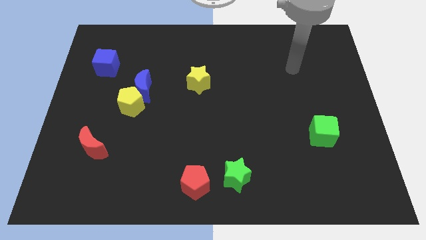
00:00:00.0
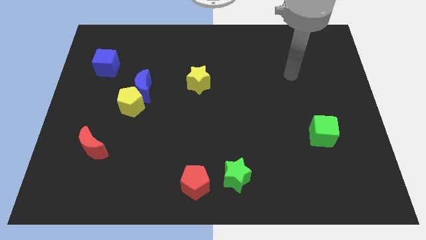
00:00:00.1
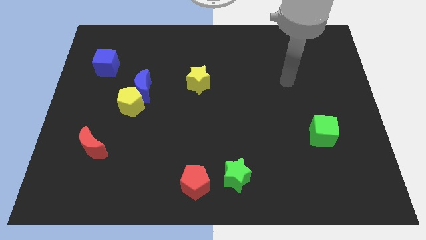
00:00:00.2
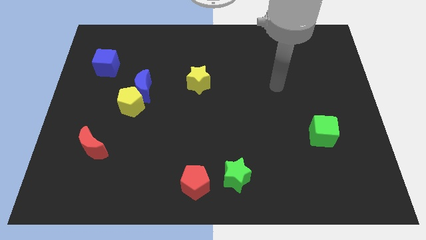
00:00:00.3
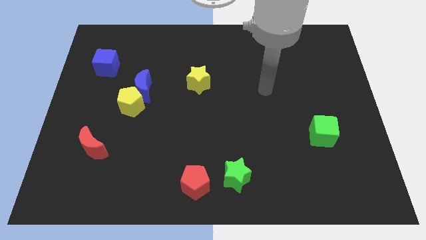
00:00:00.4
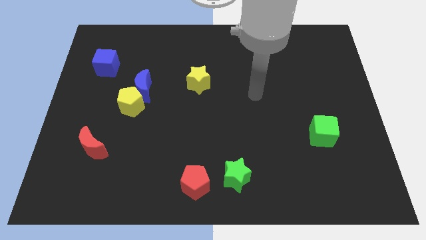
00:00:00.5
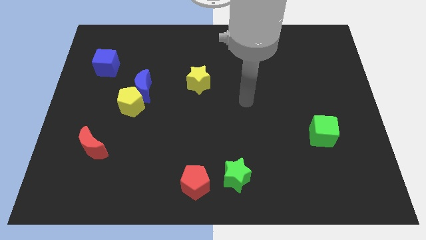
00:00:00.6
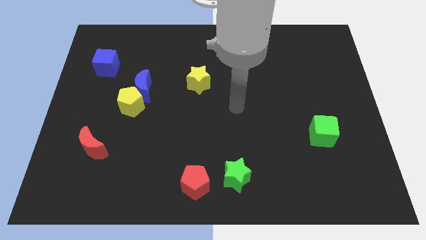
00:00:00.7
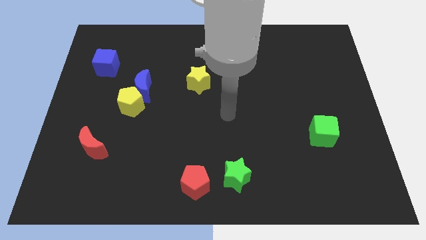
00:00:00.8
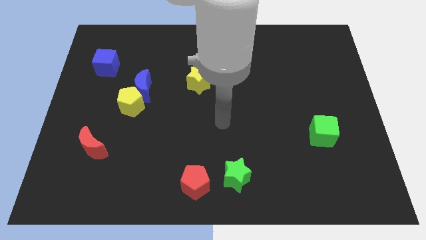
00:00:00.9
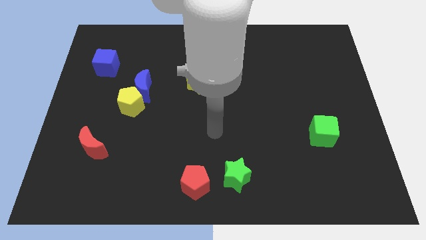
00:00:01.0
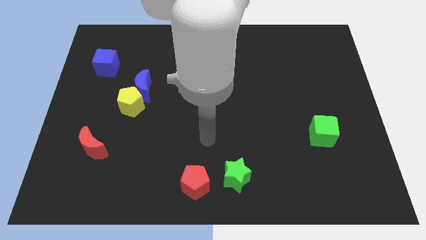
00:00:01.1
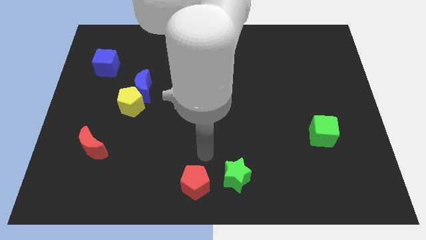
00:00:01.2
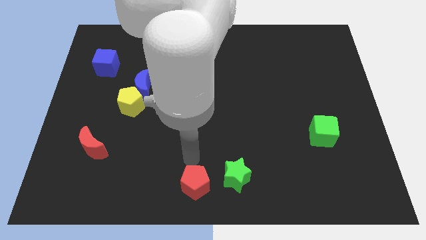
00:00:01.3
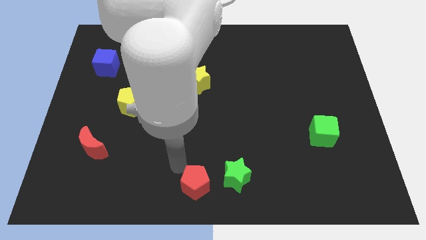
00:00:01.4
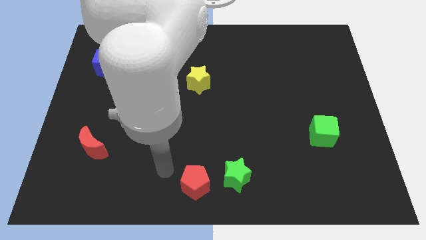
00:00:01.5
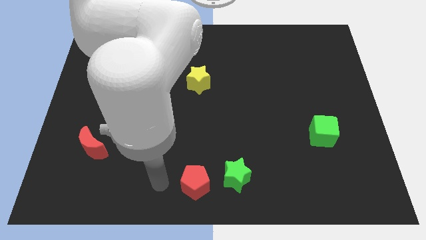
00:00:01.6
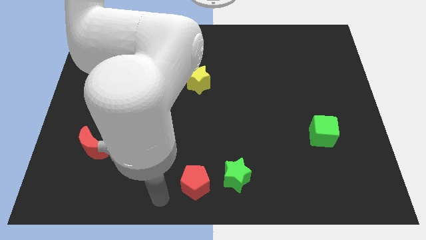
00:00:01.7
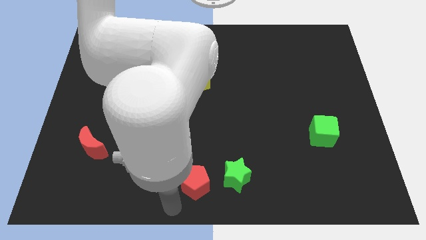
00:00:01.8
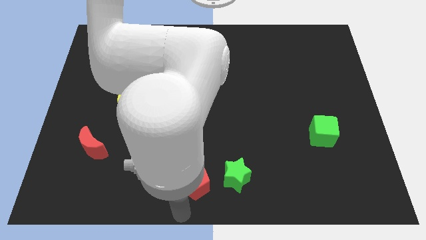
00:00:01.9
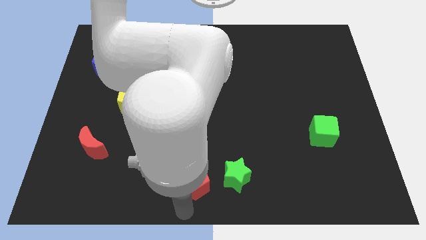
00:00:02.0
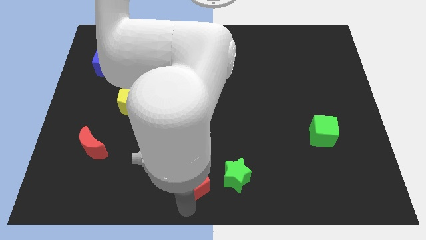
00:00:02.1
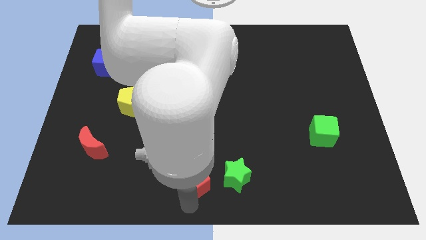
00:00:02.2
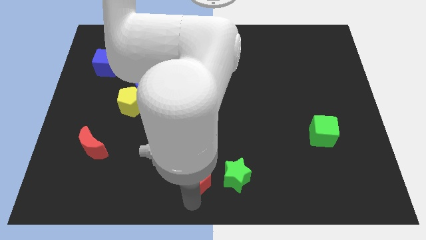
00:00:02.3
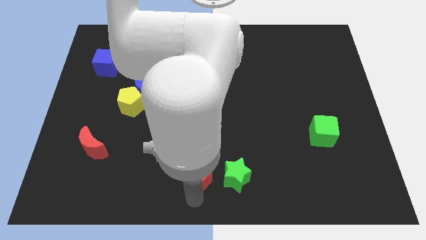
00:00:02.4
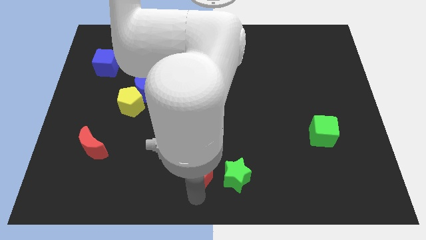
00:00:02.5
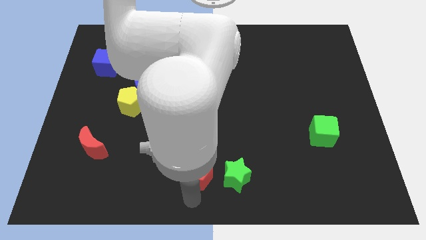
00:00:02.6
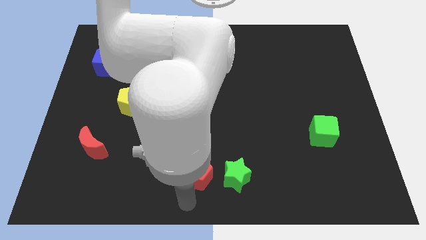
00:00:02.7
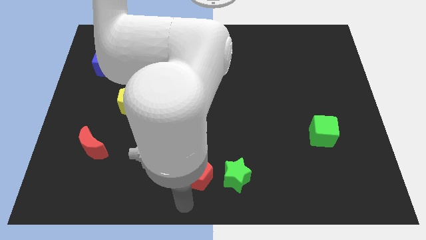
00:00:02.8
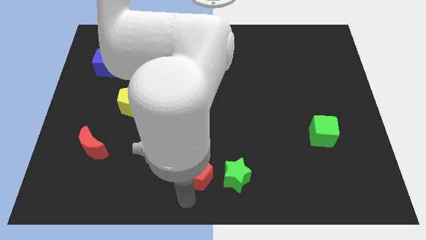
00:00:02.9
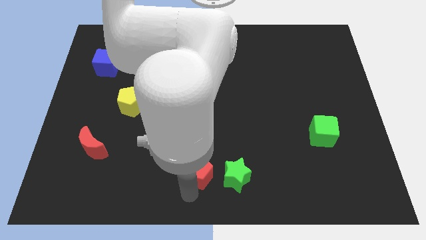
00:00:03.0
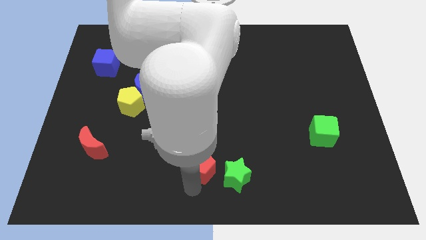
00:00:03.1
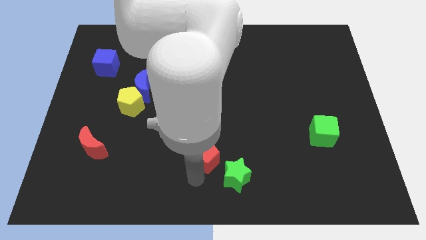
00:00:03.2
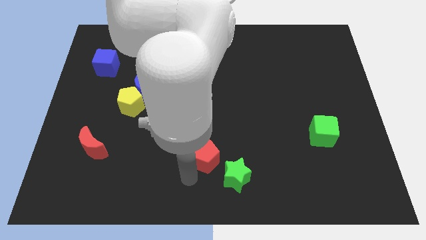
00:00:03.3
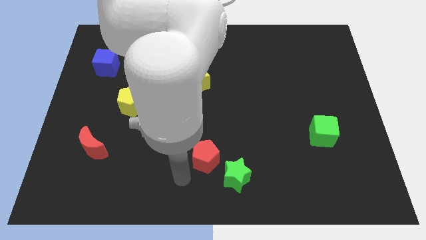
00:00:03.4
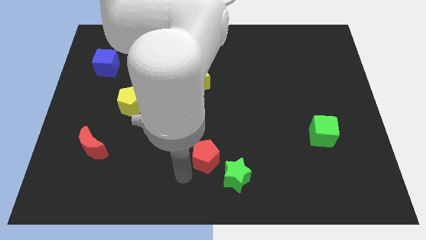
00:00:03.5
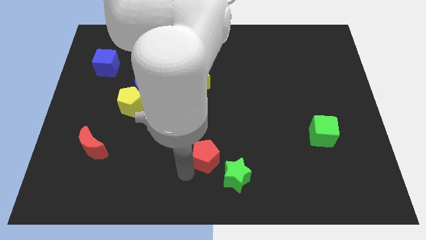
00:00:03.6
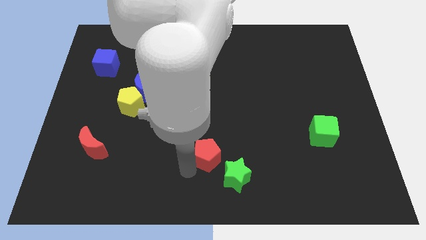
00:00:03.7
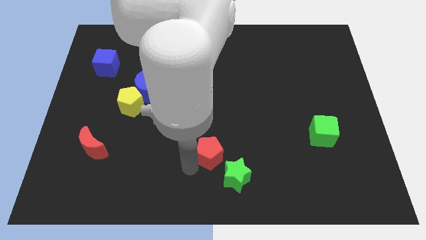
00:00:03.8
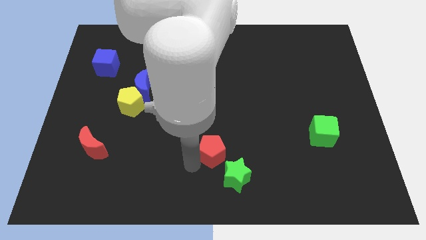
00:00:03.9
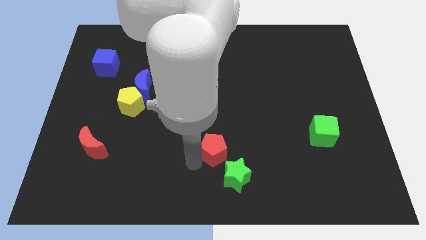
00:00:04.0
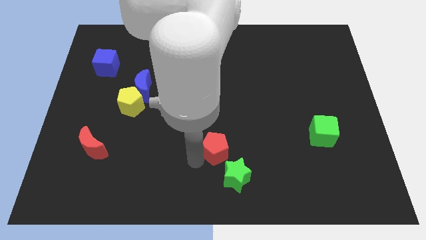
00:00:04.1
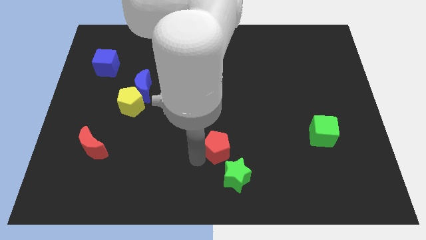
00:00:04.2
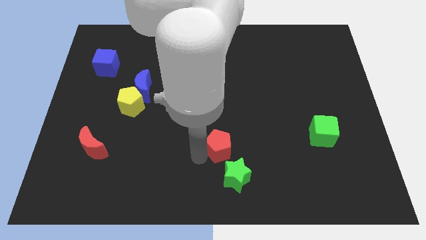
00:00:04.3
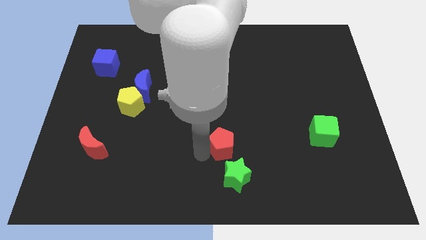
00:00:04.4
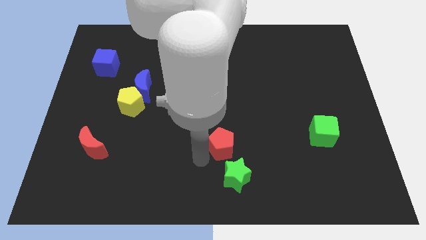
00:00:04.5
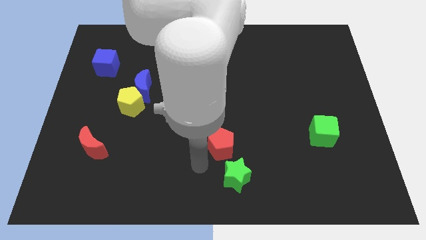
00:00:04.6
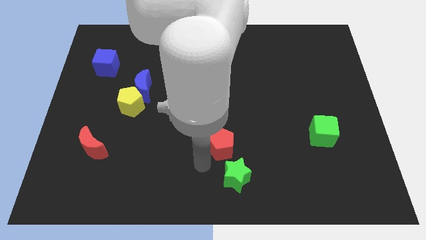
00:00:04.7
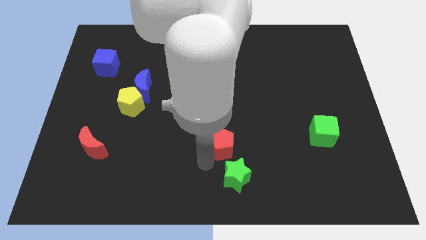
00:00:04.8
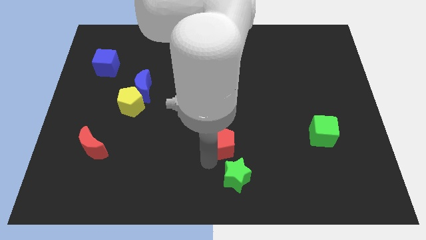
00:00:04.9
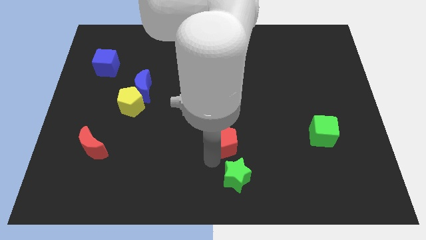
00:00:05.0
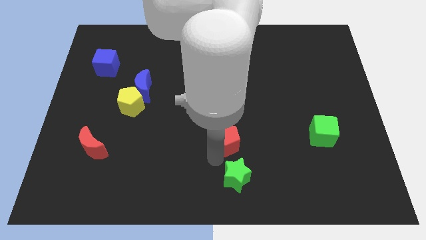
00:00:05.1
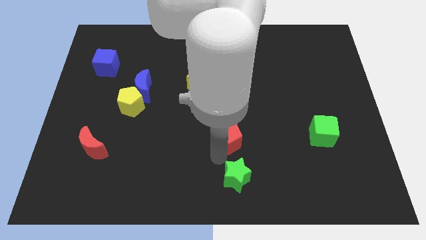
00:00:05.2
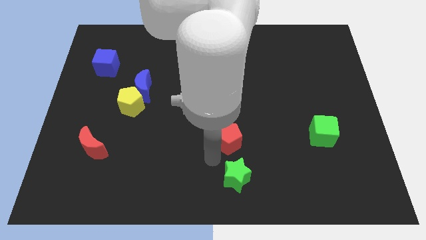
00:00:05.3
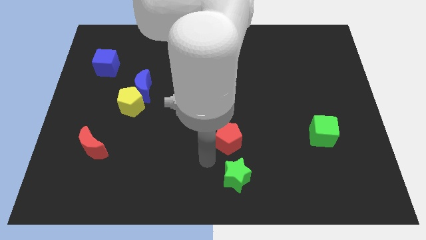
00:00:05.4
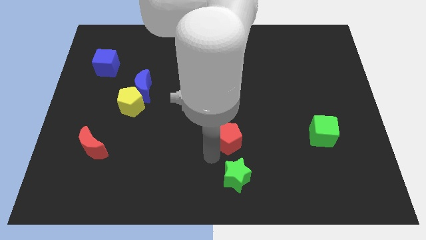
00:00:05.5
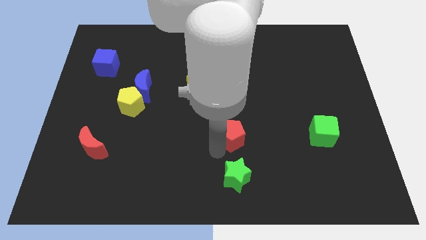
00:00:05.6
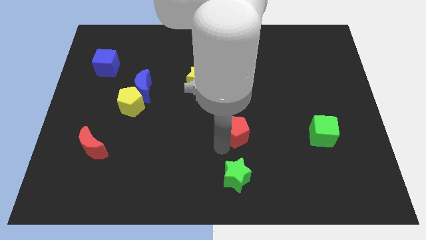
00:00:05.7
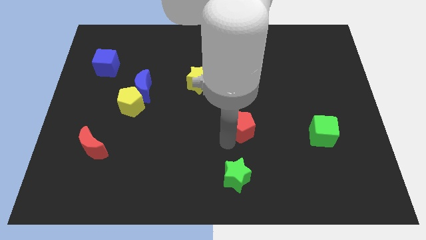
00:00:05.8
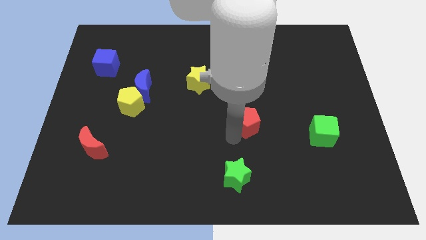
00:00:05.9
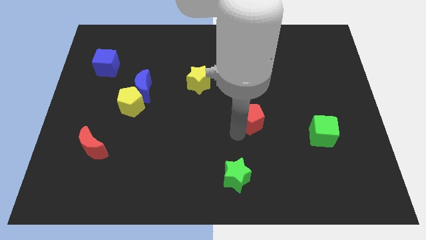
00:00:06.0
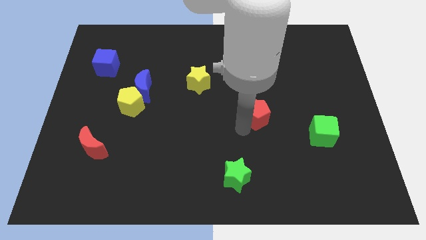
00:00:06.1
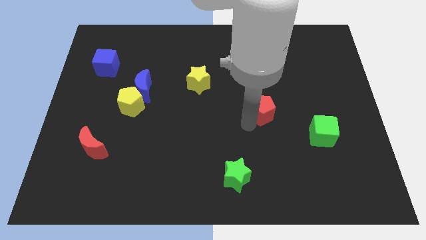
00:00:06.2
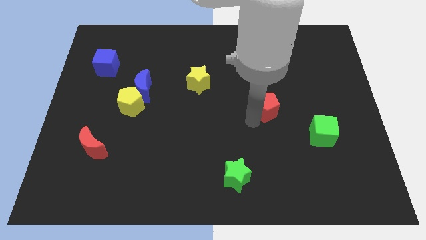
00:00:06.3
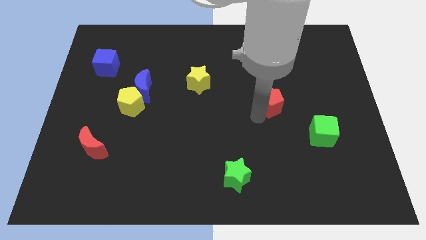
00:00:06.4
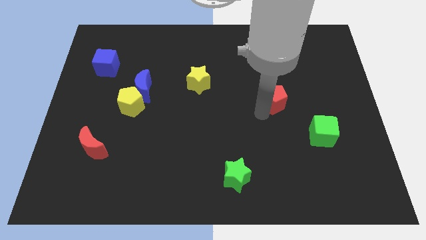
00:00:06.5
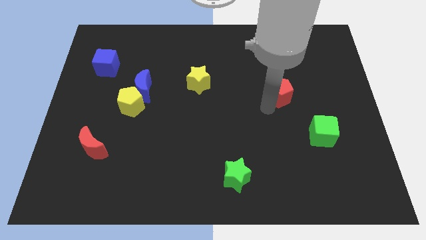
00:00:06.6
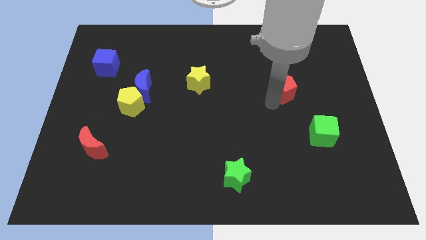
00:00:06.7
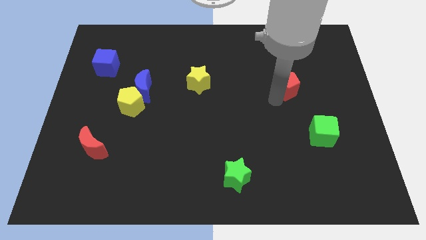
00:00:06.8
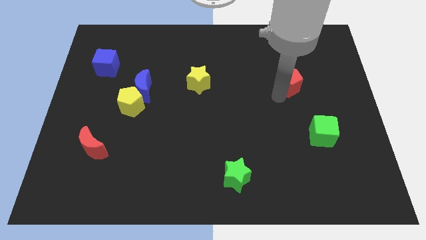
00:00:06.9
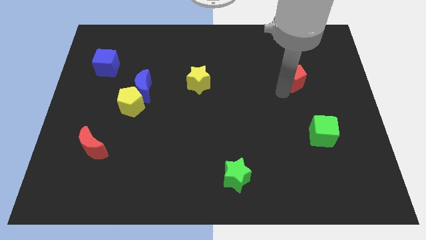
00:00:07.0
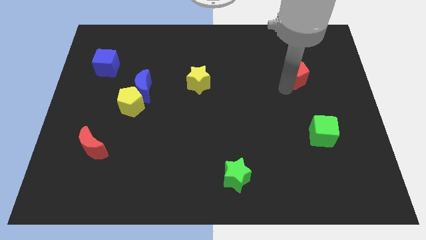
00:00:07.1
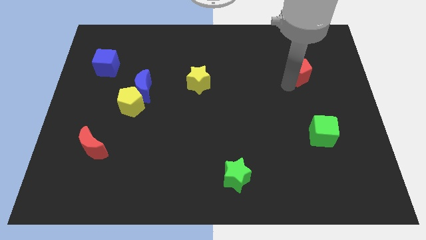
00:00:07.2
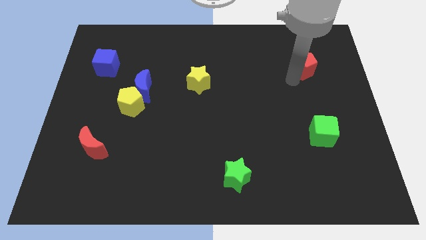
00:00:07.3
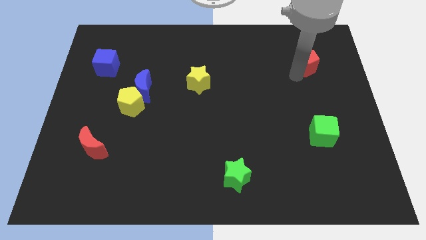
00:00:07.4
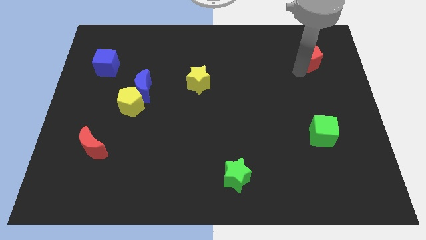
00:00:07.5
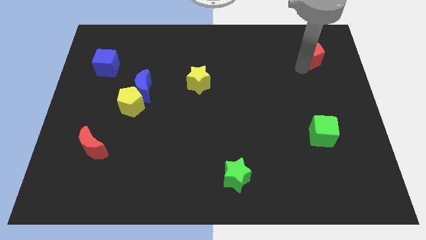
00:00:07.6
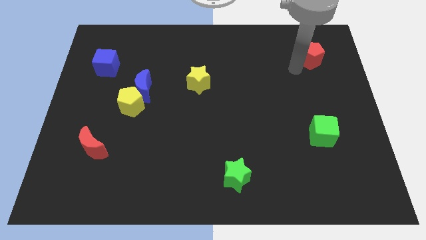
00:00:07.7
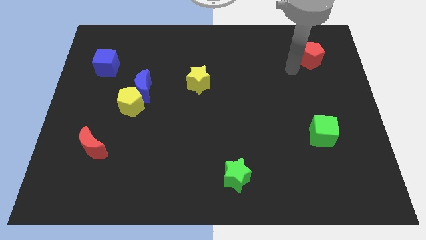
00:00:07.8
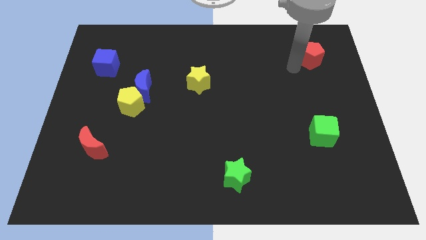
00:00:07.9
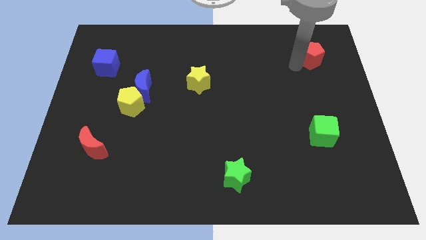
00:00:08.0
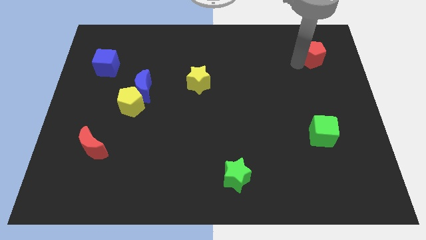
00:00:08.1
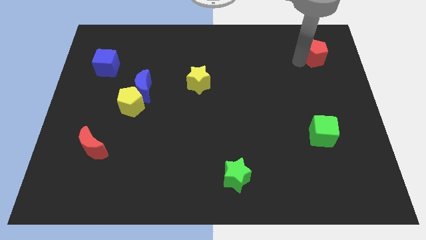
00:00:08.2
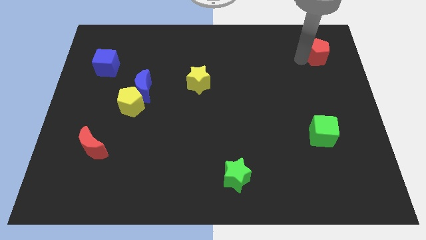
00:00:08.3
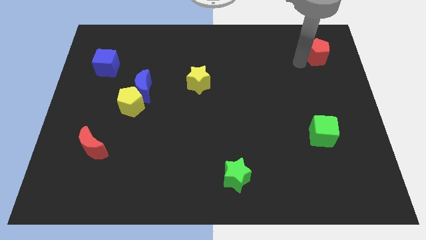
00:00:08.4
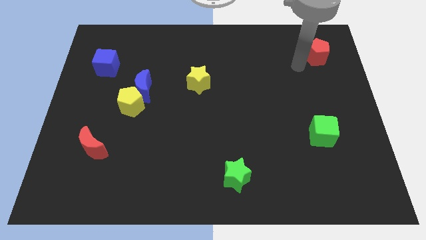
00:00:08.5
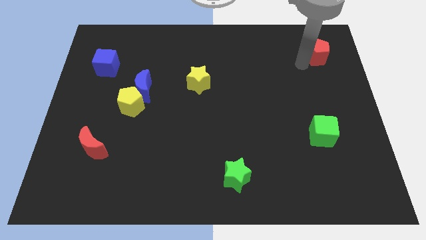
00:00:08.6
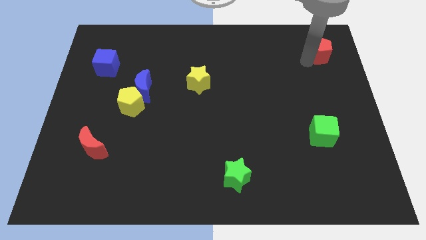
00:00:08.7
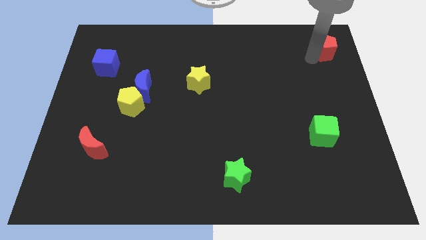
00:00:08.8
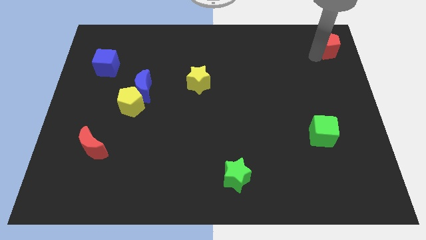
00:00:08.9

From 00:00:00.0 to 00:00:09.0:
move the red pentagon to the upper right corner
